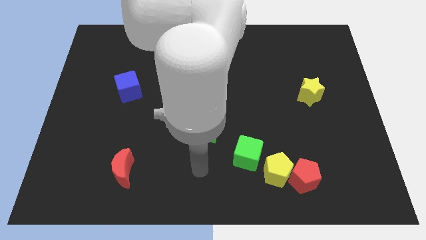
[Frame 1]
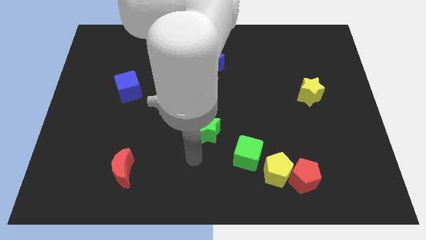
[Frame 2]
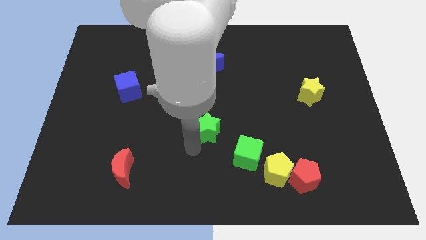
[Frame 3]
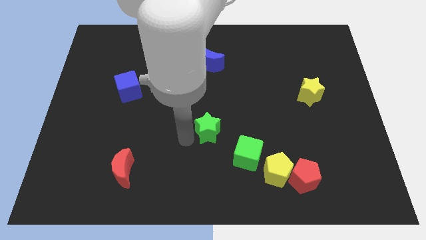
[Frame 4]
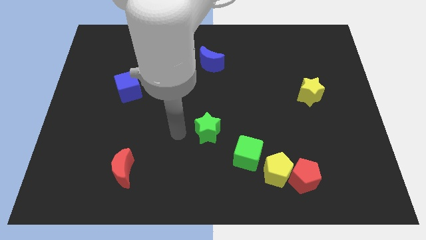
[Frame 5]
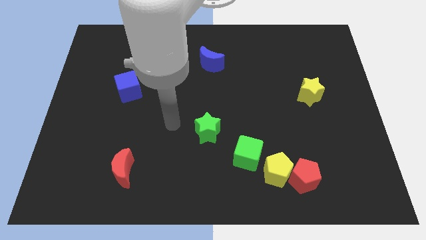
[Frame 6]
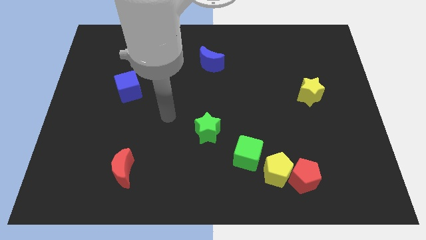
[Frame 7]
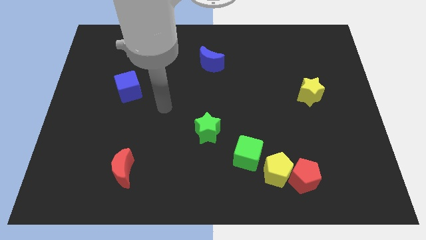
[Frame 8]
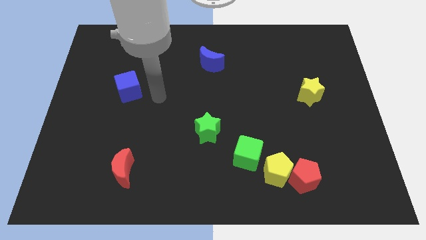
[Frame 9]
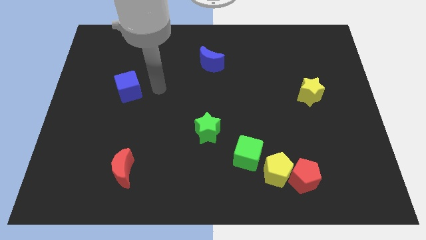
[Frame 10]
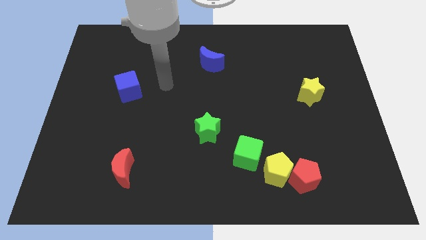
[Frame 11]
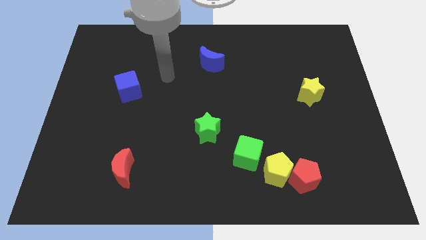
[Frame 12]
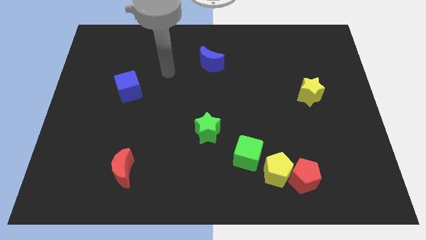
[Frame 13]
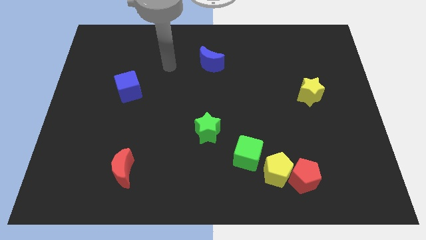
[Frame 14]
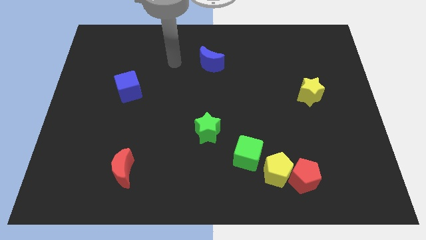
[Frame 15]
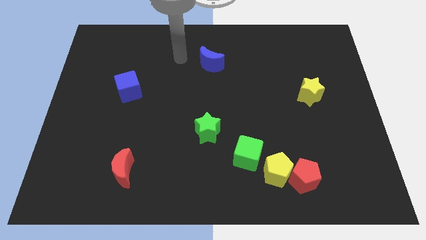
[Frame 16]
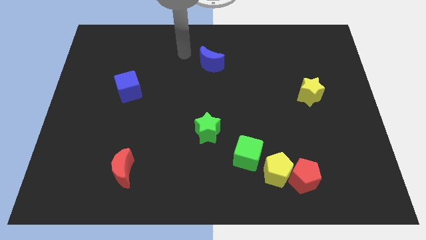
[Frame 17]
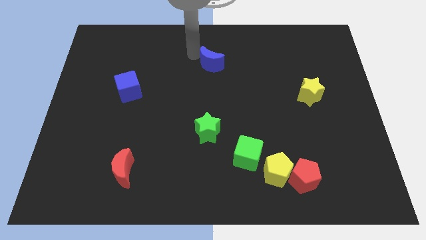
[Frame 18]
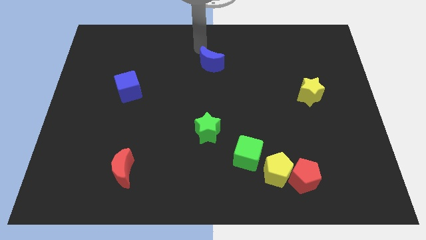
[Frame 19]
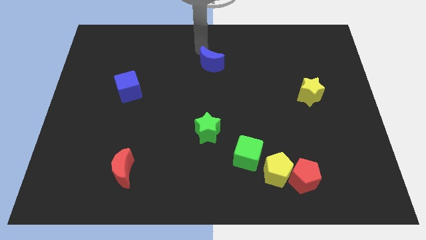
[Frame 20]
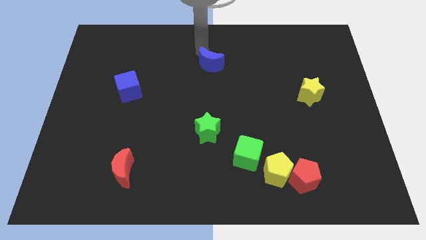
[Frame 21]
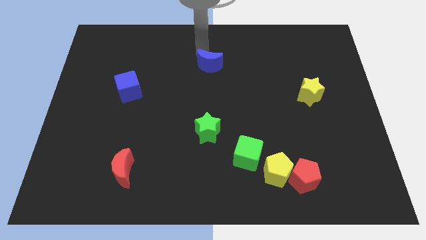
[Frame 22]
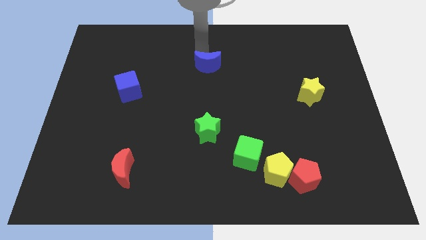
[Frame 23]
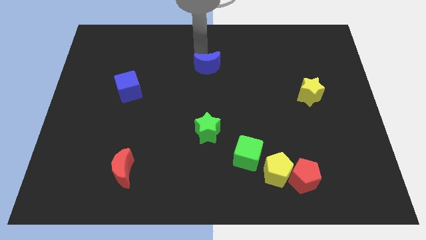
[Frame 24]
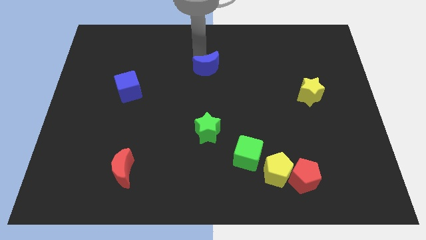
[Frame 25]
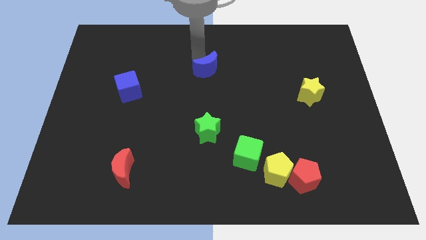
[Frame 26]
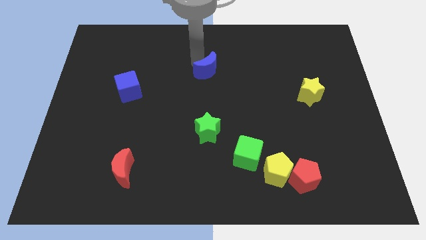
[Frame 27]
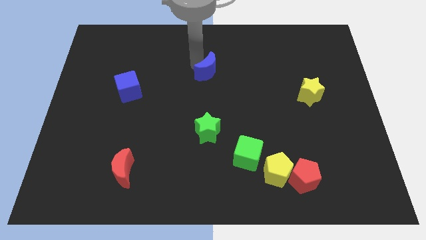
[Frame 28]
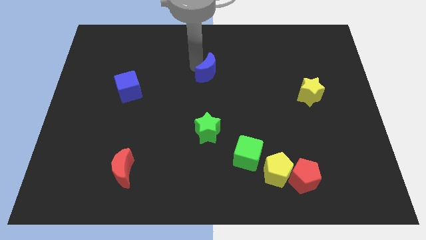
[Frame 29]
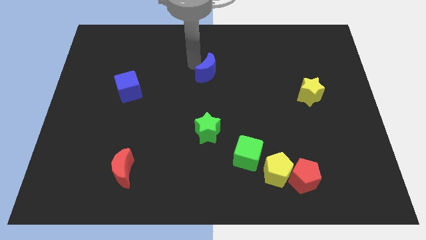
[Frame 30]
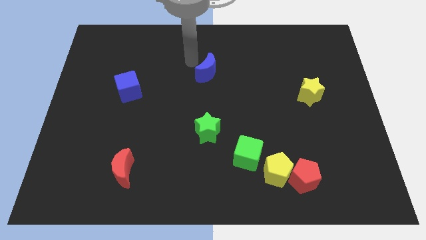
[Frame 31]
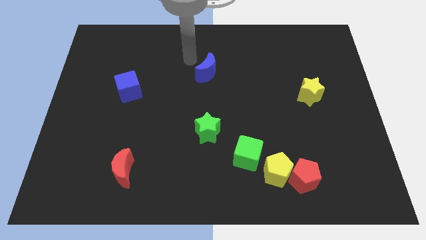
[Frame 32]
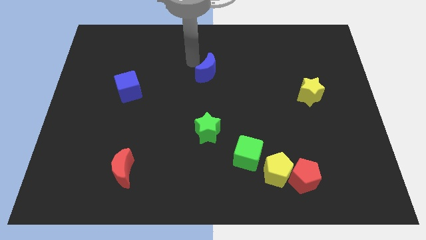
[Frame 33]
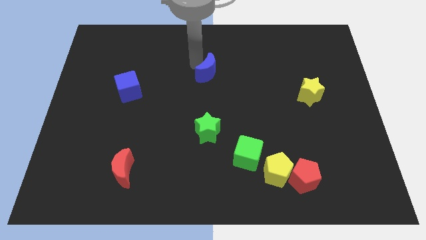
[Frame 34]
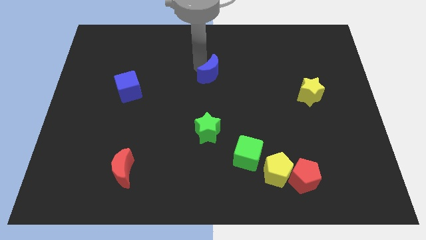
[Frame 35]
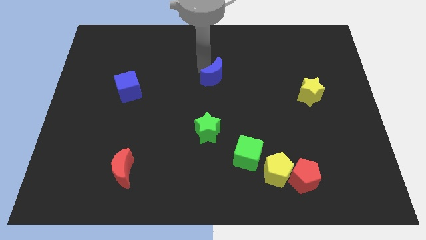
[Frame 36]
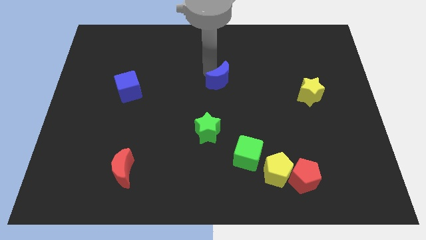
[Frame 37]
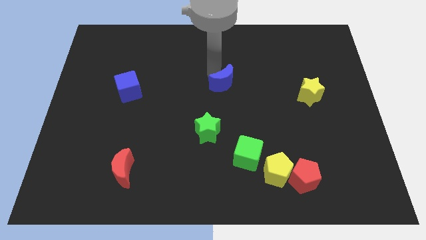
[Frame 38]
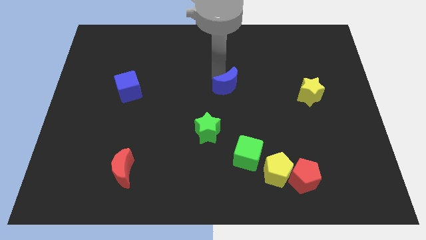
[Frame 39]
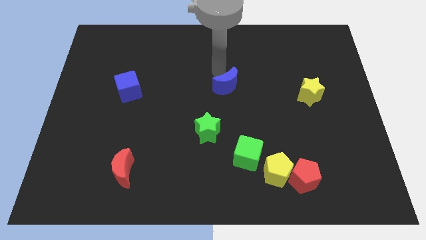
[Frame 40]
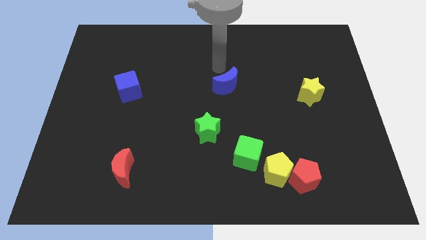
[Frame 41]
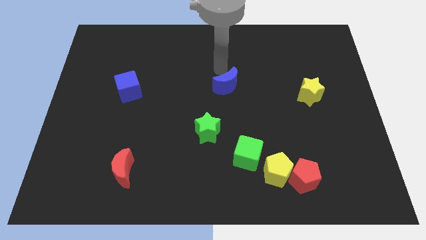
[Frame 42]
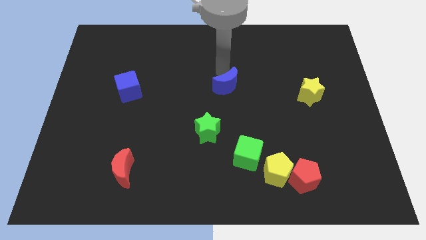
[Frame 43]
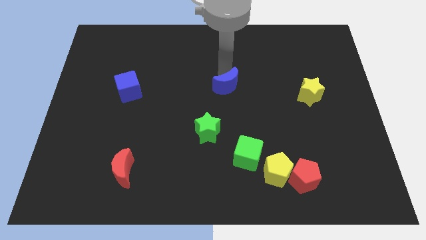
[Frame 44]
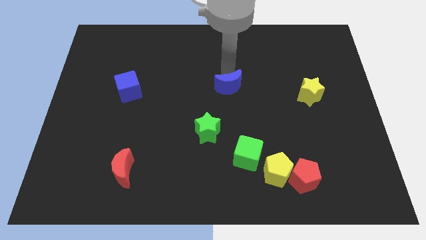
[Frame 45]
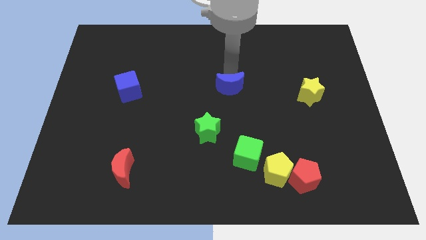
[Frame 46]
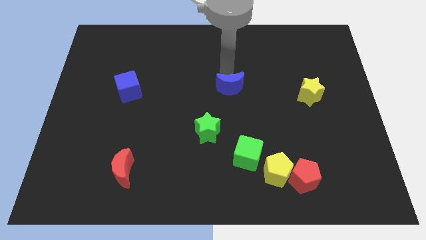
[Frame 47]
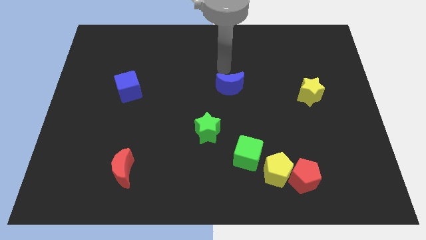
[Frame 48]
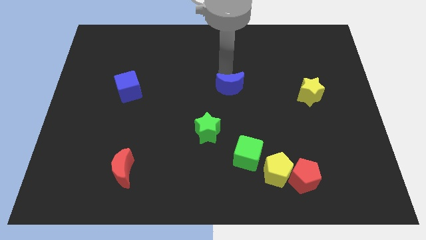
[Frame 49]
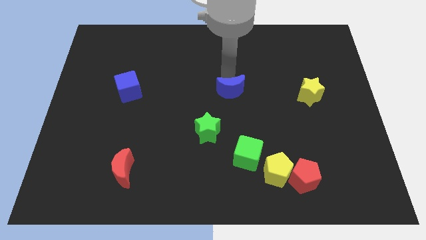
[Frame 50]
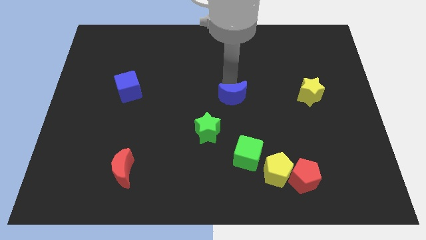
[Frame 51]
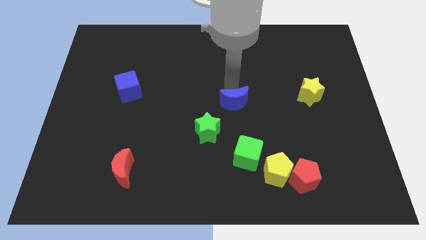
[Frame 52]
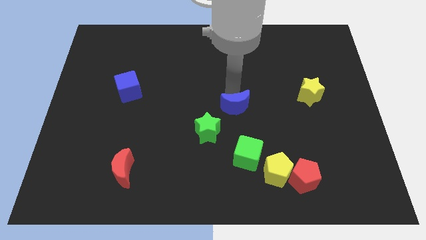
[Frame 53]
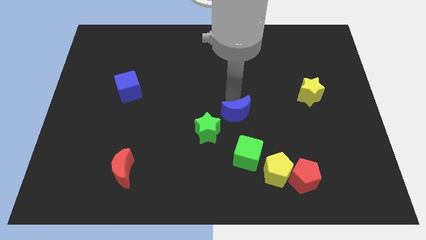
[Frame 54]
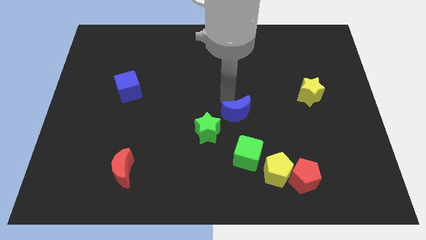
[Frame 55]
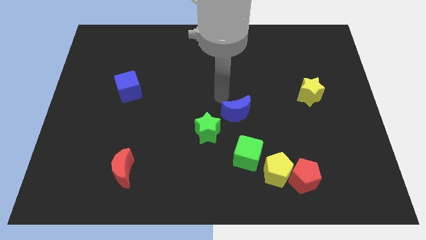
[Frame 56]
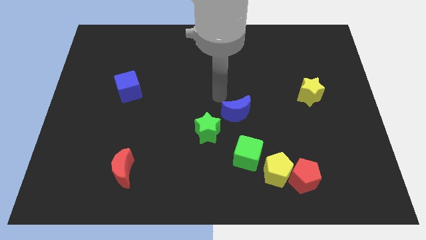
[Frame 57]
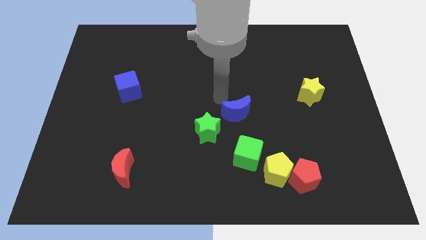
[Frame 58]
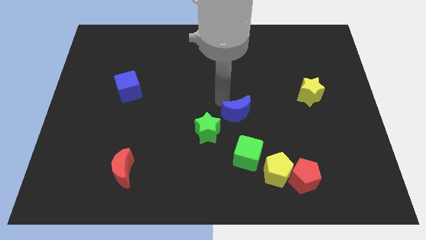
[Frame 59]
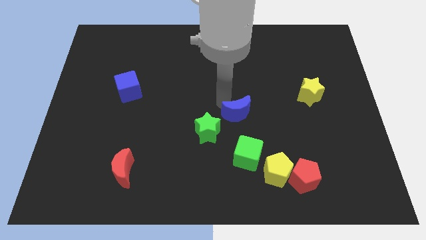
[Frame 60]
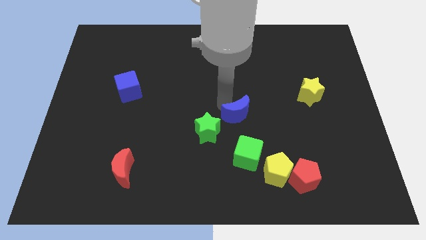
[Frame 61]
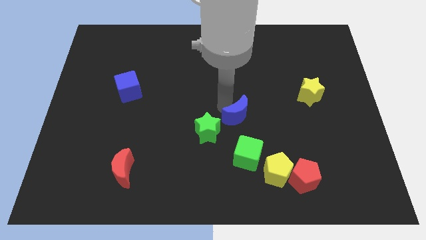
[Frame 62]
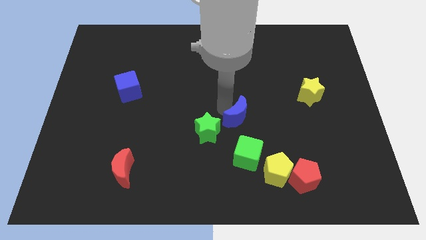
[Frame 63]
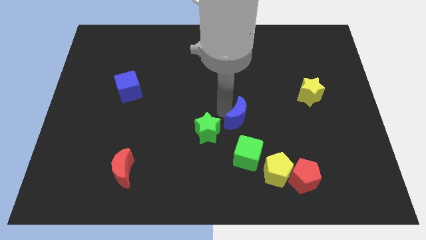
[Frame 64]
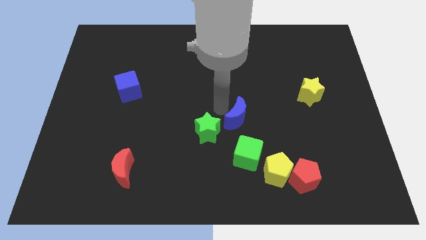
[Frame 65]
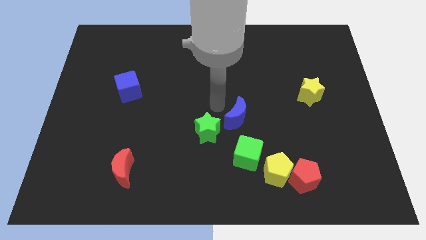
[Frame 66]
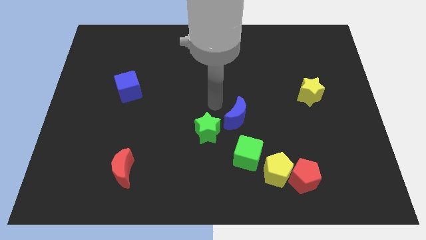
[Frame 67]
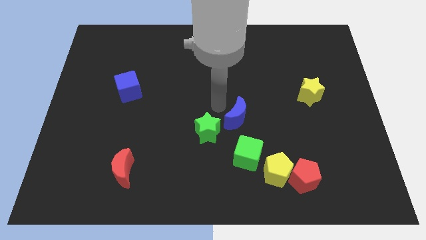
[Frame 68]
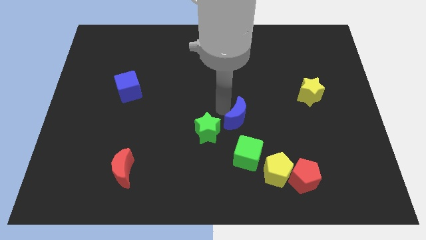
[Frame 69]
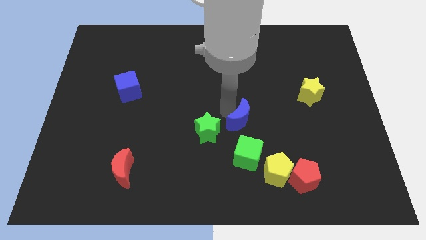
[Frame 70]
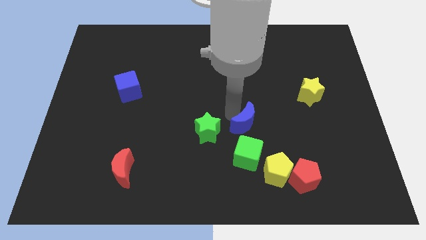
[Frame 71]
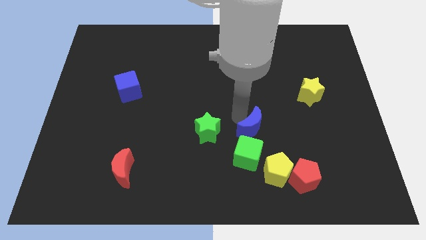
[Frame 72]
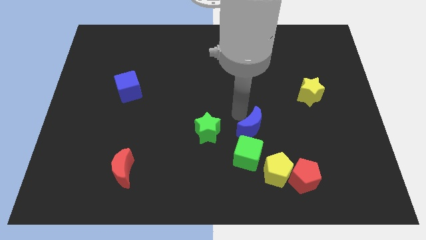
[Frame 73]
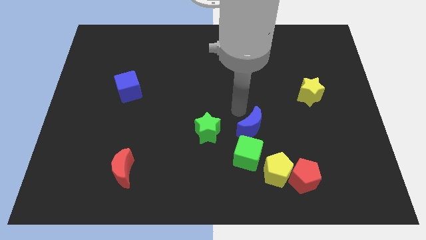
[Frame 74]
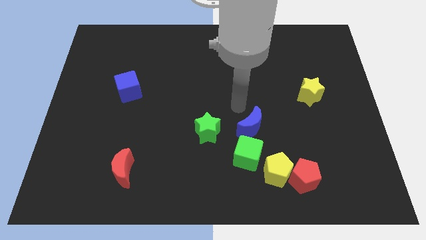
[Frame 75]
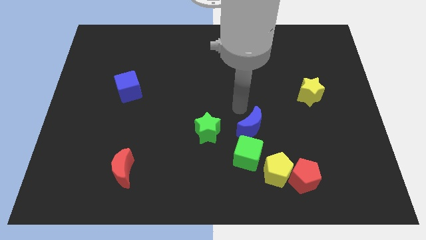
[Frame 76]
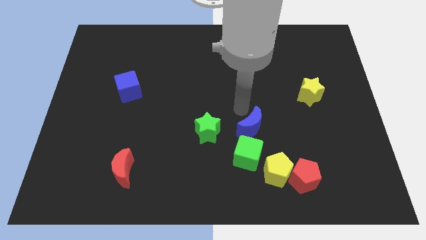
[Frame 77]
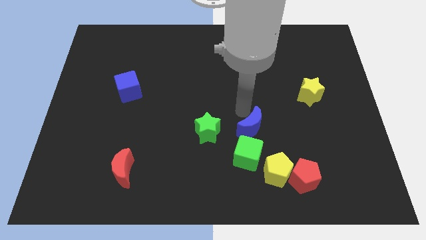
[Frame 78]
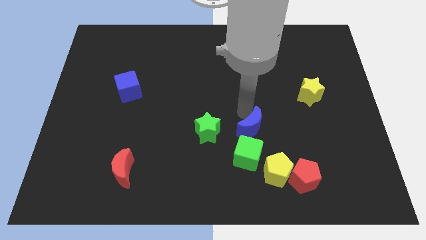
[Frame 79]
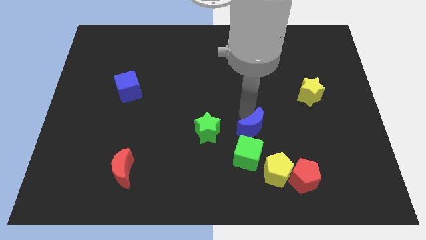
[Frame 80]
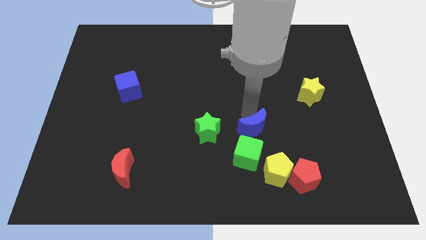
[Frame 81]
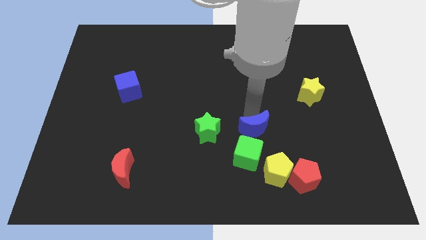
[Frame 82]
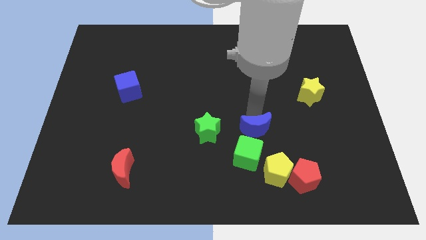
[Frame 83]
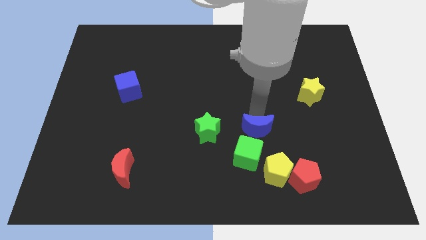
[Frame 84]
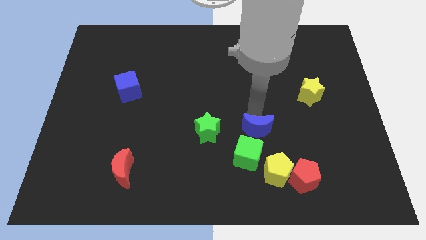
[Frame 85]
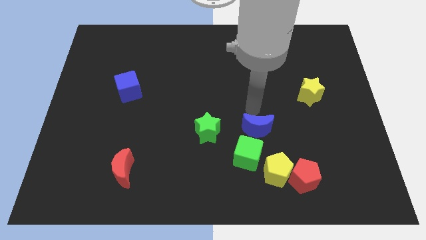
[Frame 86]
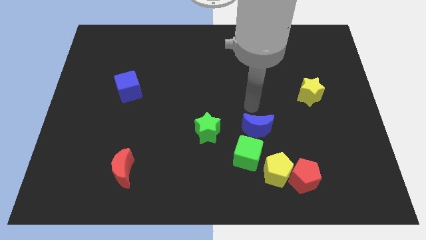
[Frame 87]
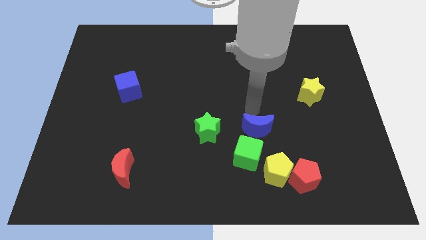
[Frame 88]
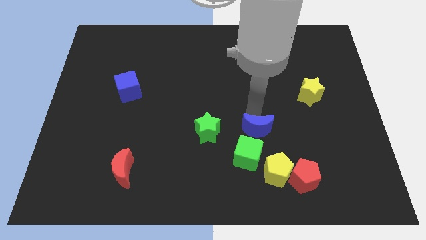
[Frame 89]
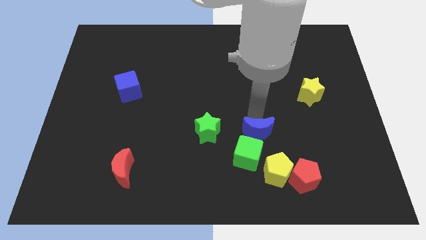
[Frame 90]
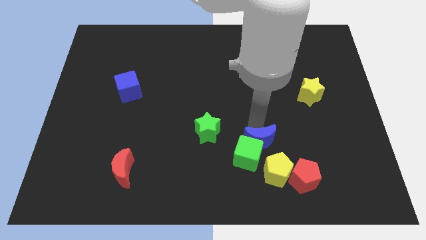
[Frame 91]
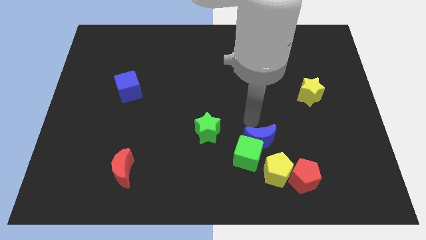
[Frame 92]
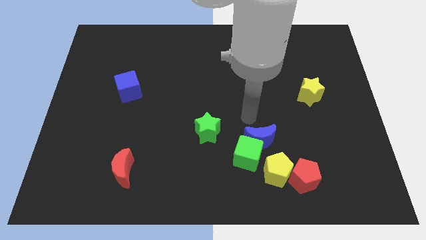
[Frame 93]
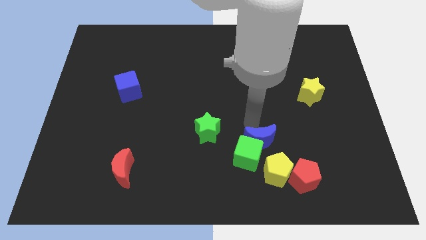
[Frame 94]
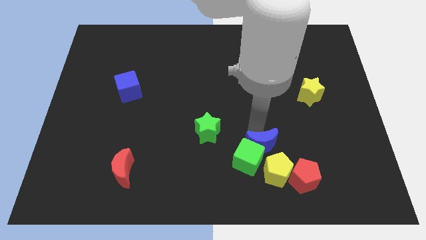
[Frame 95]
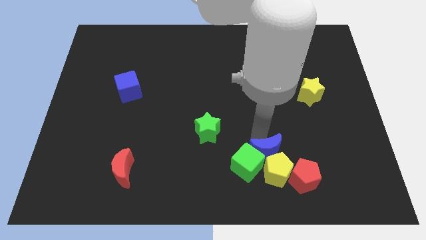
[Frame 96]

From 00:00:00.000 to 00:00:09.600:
slide the blue moon next to the yellow pentagon
